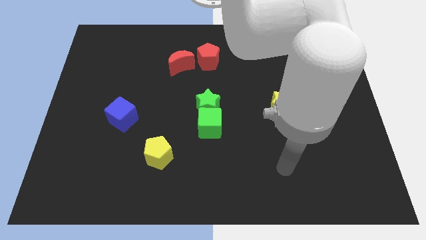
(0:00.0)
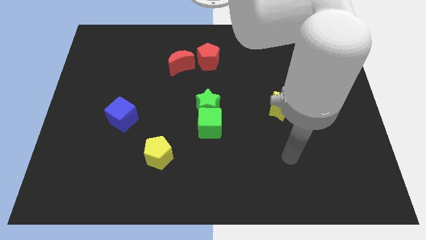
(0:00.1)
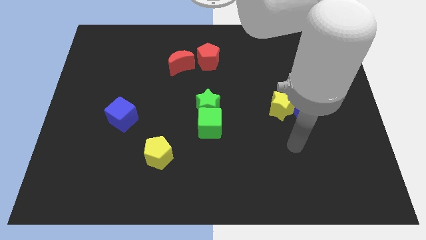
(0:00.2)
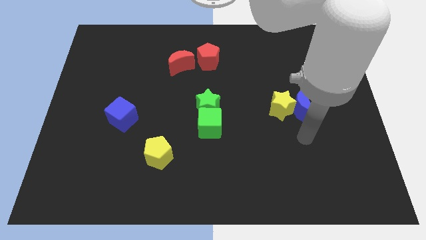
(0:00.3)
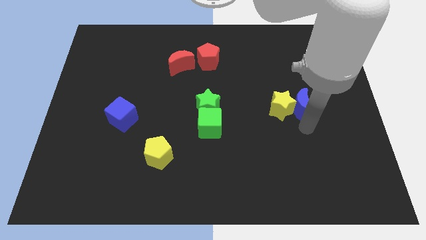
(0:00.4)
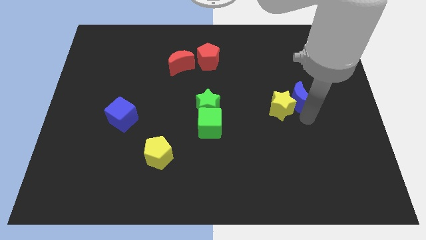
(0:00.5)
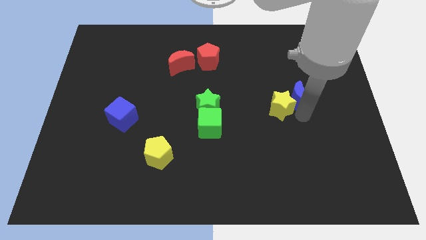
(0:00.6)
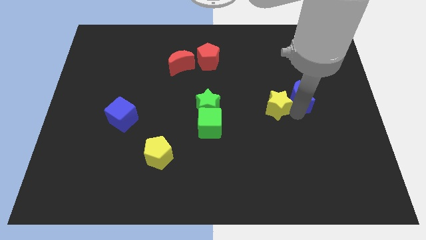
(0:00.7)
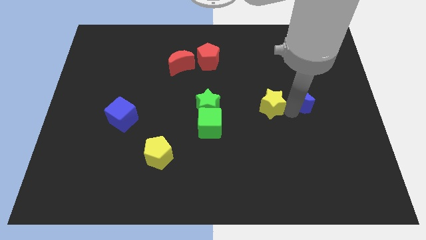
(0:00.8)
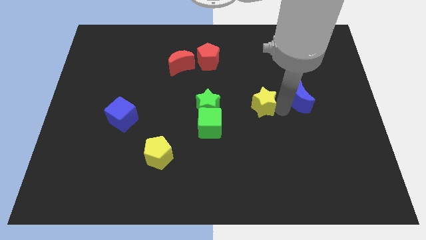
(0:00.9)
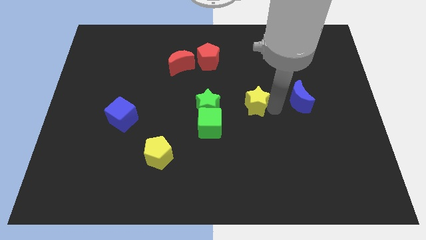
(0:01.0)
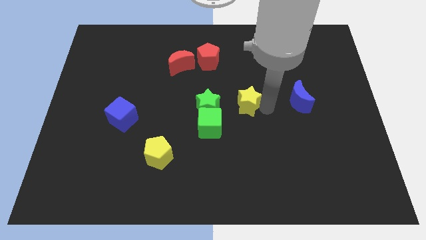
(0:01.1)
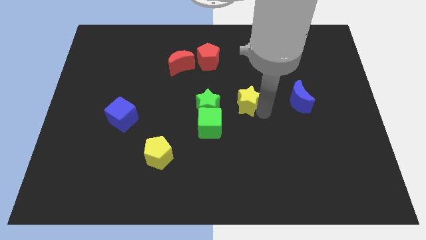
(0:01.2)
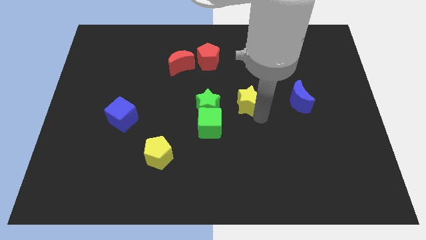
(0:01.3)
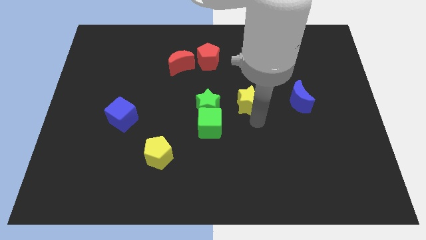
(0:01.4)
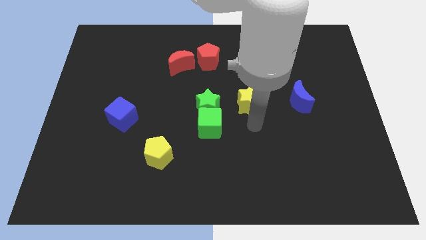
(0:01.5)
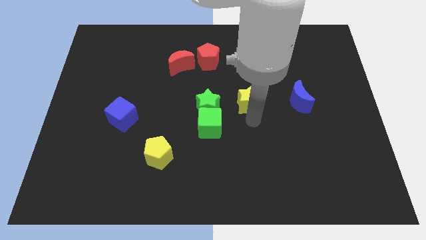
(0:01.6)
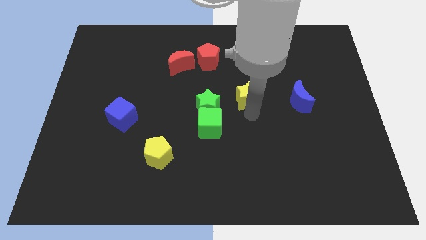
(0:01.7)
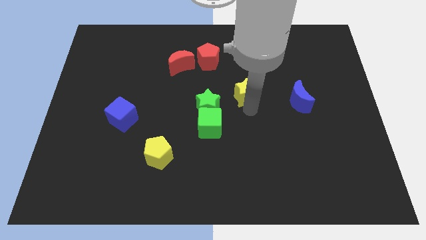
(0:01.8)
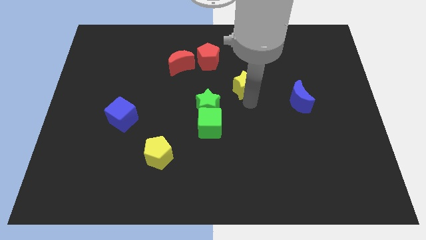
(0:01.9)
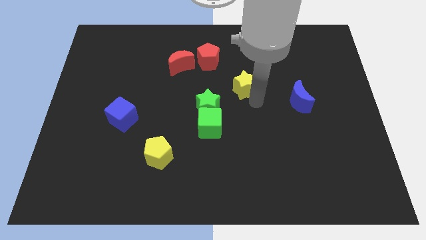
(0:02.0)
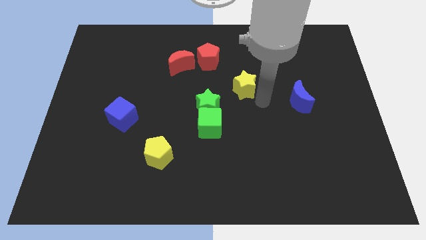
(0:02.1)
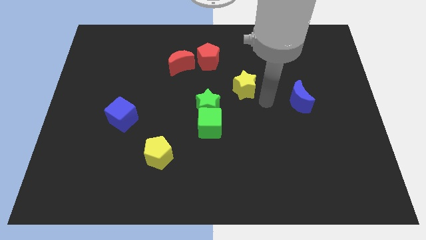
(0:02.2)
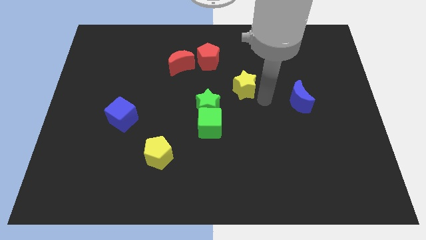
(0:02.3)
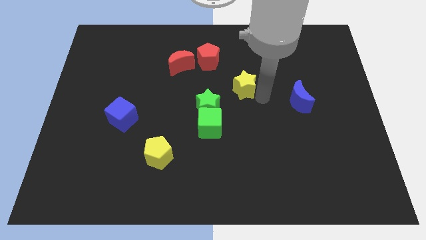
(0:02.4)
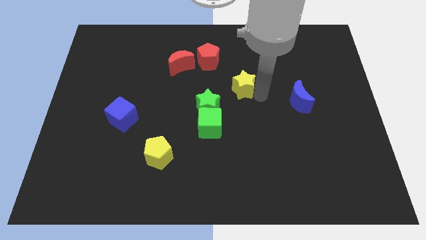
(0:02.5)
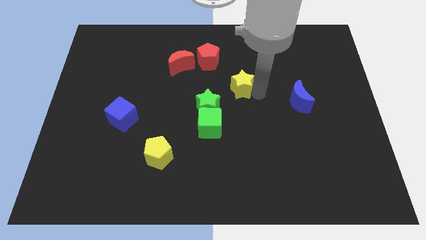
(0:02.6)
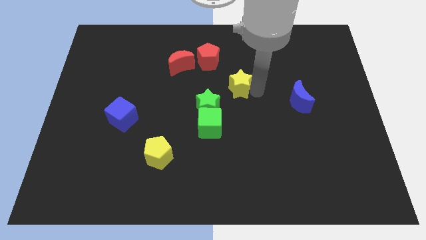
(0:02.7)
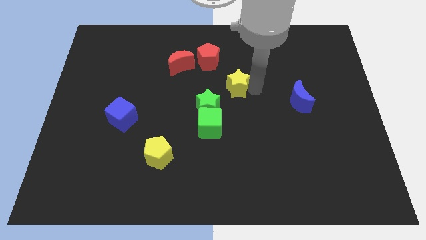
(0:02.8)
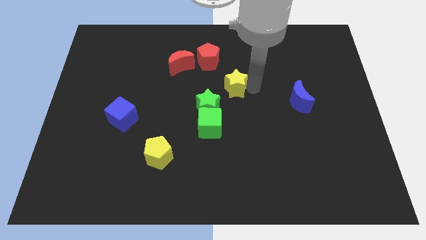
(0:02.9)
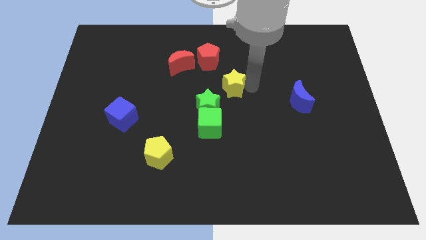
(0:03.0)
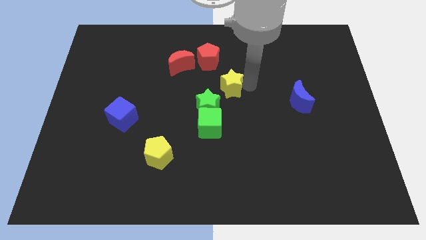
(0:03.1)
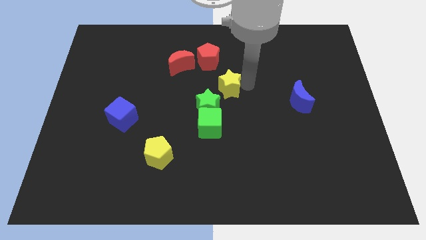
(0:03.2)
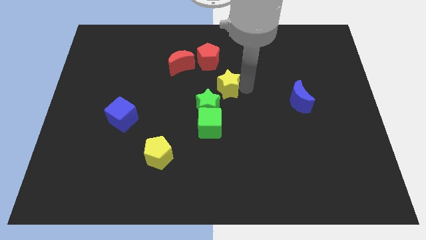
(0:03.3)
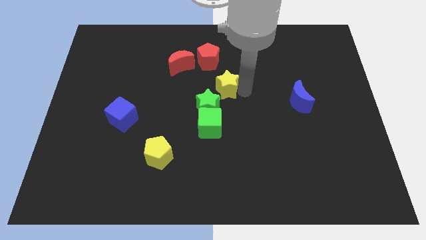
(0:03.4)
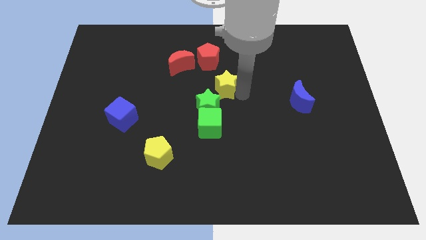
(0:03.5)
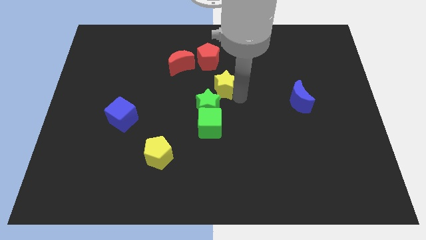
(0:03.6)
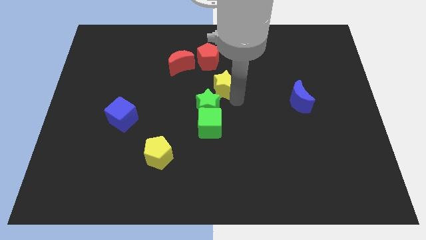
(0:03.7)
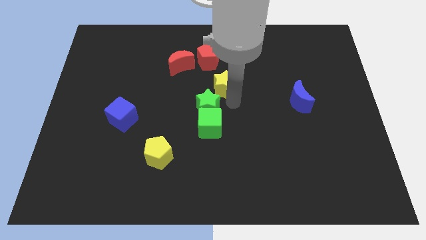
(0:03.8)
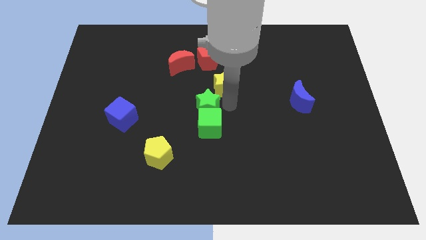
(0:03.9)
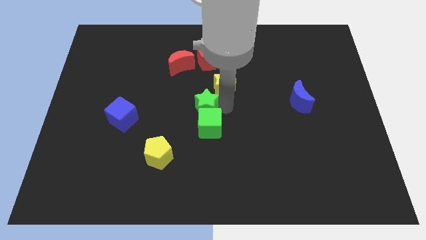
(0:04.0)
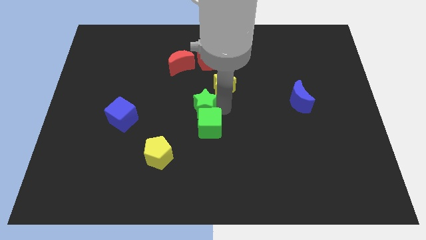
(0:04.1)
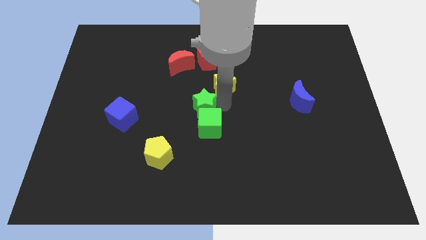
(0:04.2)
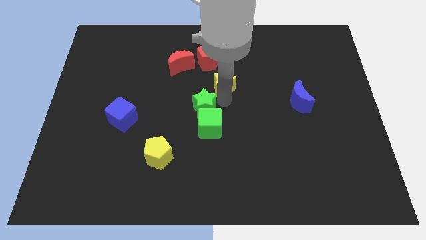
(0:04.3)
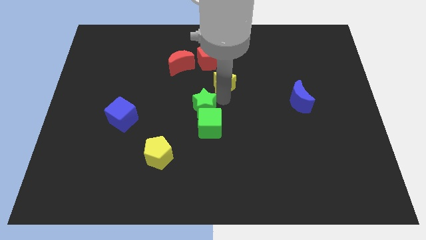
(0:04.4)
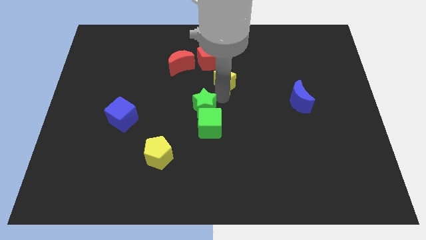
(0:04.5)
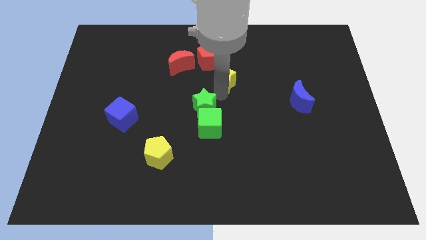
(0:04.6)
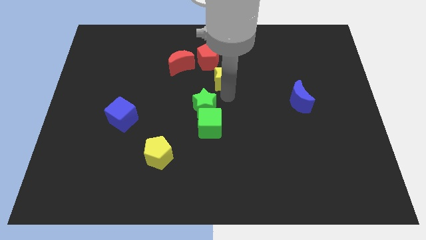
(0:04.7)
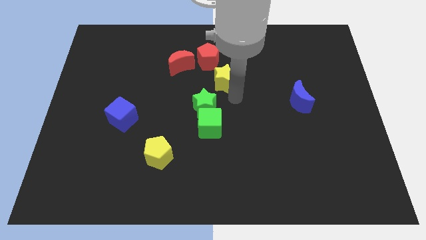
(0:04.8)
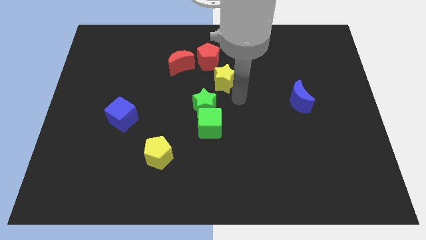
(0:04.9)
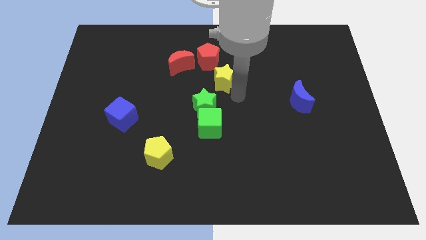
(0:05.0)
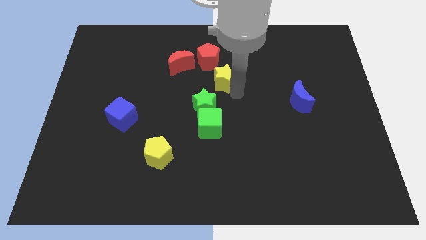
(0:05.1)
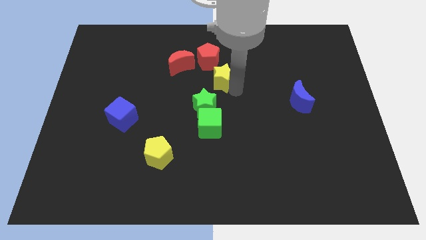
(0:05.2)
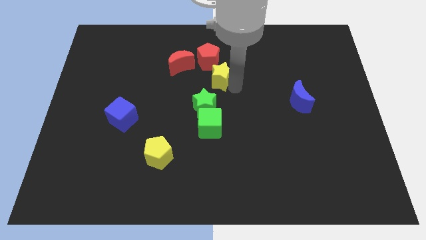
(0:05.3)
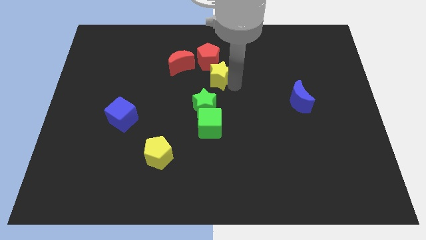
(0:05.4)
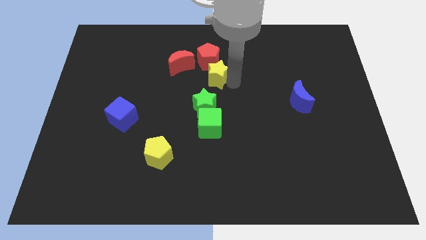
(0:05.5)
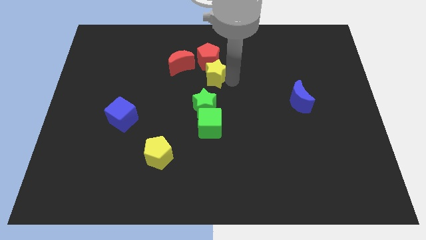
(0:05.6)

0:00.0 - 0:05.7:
put the yellow star towards the red pentagon

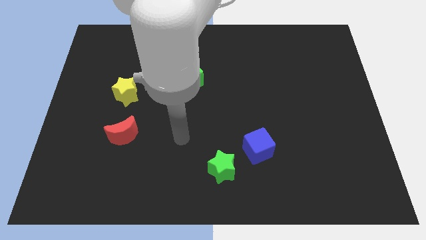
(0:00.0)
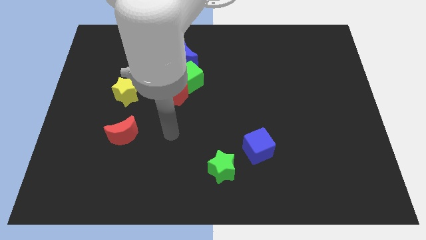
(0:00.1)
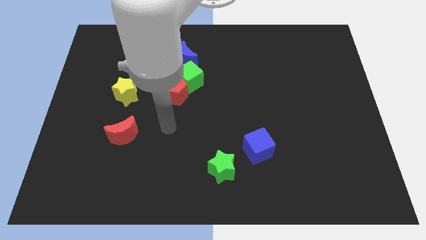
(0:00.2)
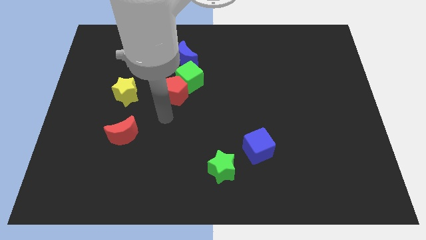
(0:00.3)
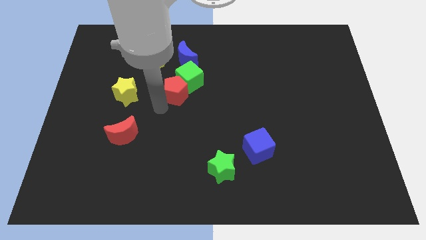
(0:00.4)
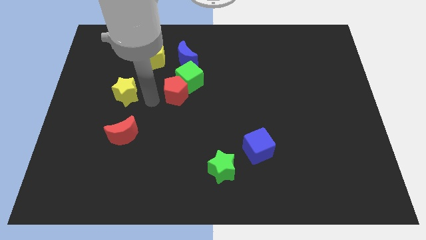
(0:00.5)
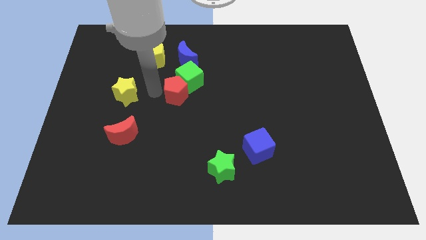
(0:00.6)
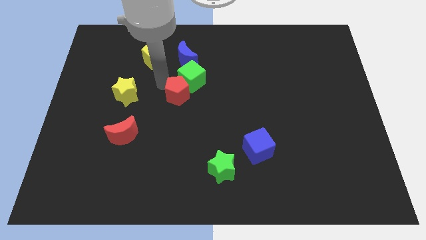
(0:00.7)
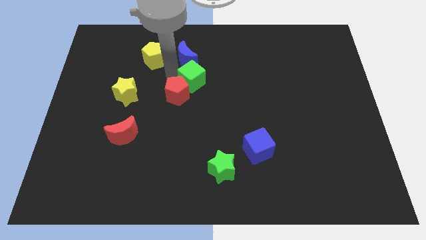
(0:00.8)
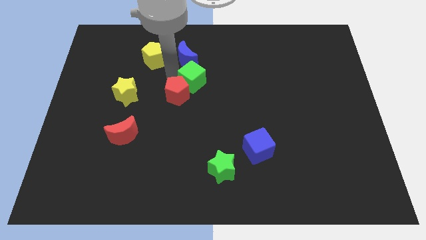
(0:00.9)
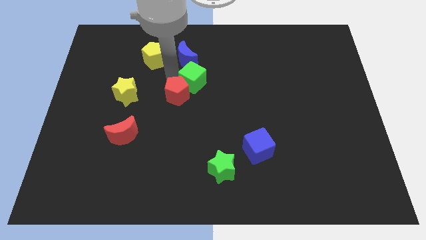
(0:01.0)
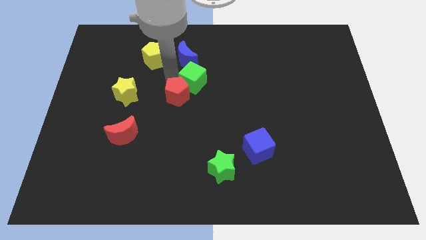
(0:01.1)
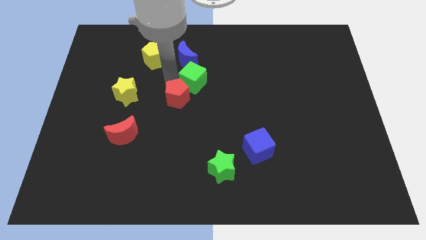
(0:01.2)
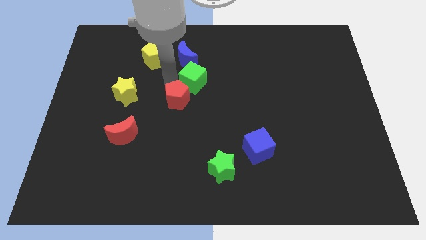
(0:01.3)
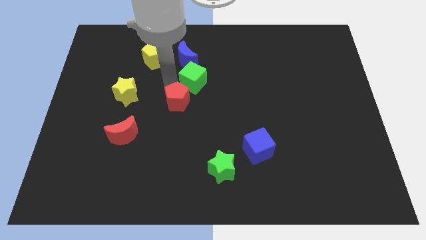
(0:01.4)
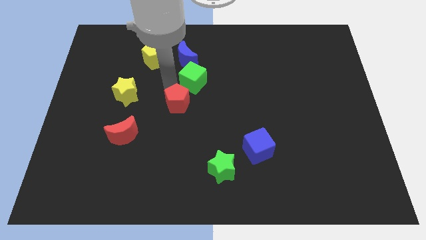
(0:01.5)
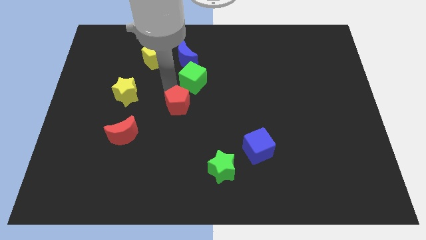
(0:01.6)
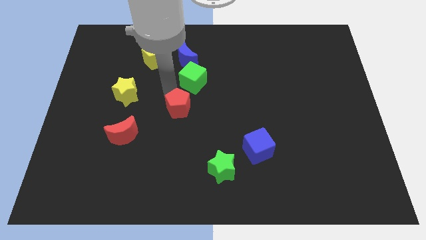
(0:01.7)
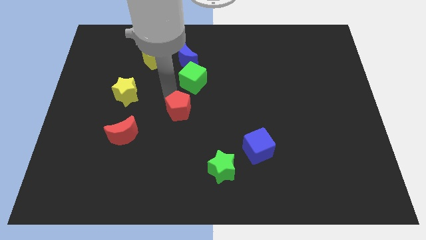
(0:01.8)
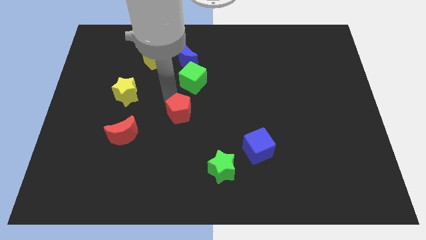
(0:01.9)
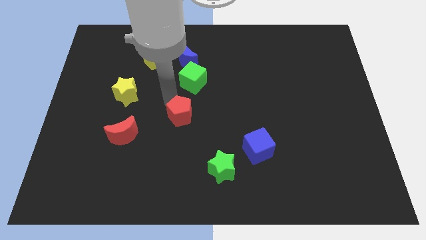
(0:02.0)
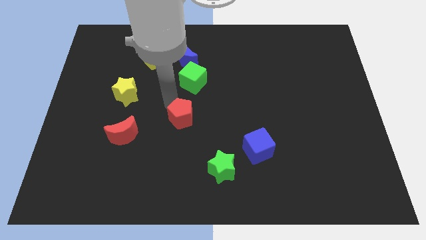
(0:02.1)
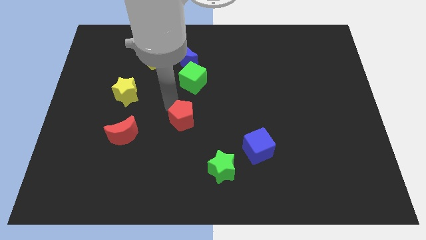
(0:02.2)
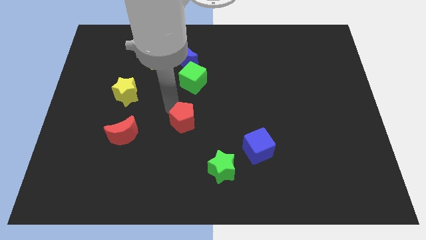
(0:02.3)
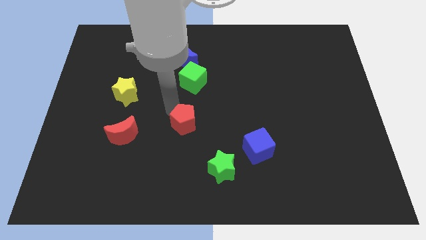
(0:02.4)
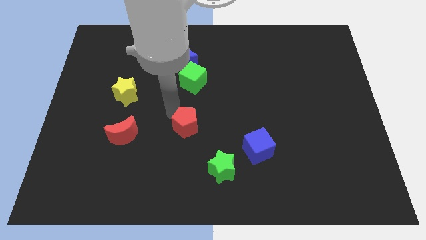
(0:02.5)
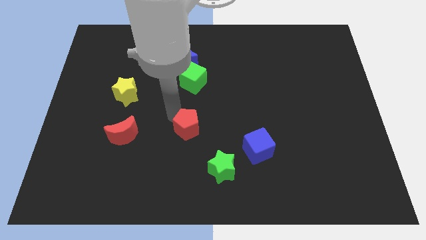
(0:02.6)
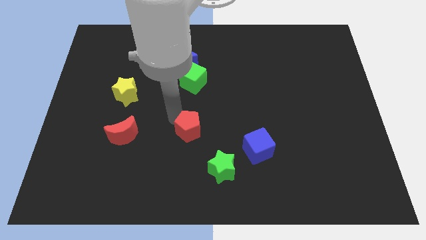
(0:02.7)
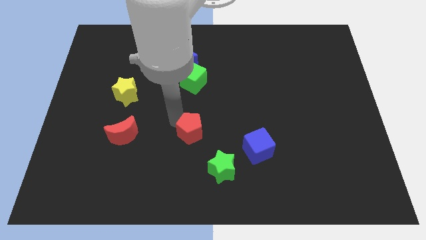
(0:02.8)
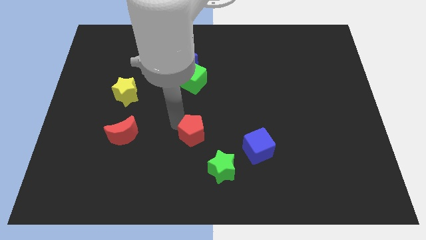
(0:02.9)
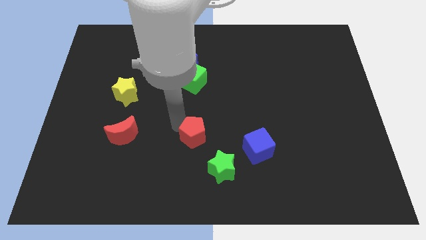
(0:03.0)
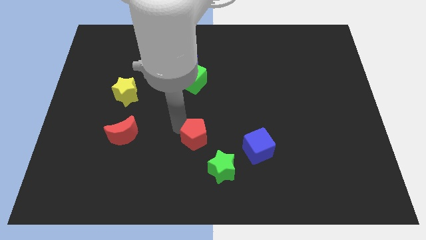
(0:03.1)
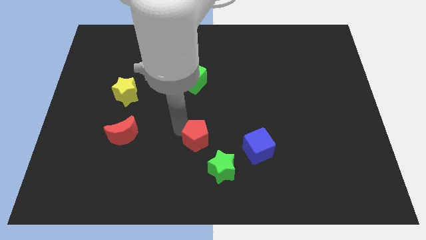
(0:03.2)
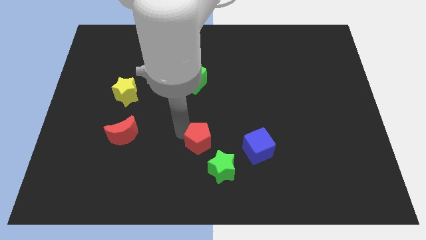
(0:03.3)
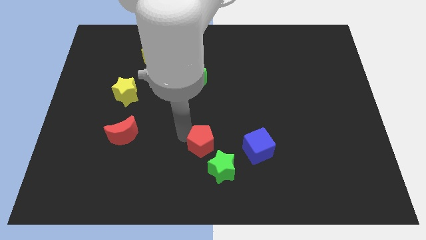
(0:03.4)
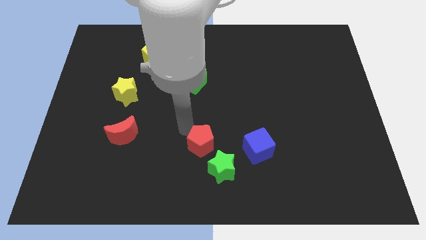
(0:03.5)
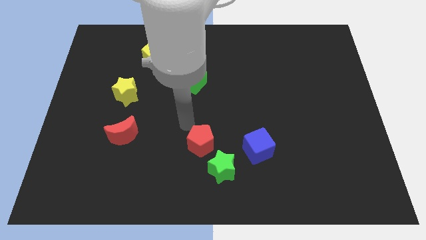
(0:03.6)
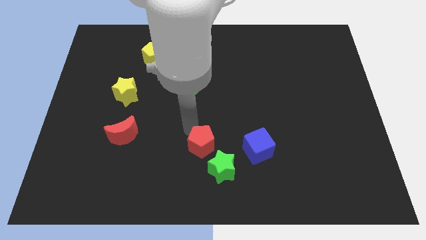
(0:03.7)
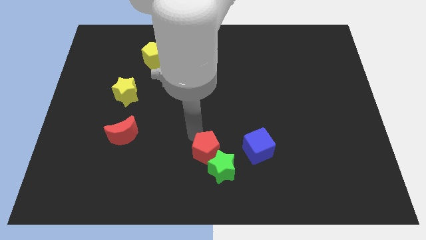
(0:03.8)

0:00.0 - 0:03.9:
move the red pentagon next to the green star
